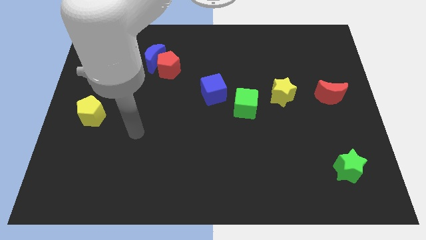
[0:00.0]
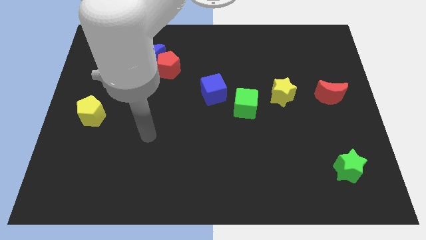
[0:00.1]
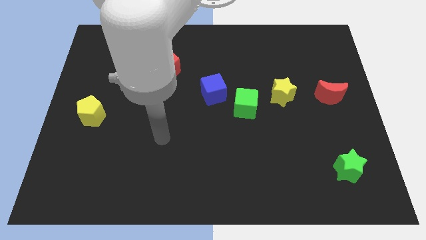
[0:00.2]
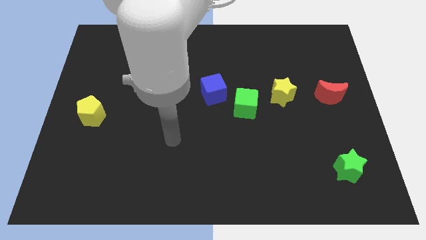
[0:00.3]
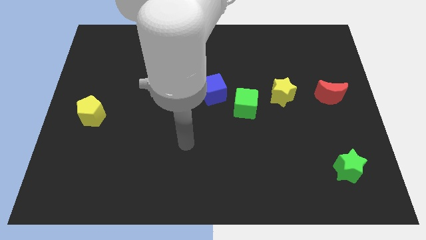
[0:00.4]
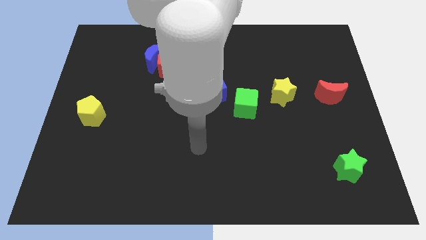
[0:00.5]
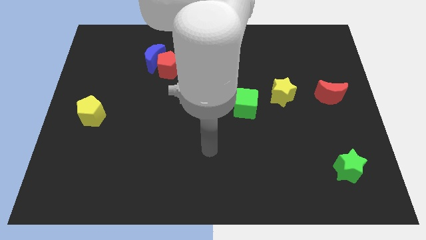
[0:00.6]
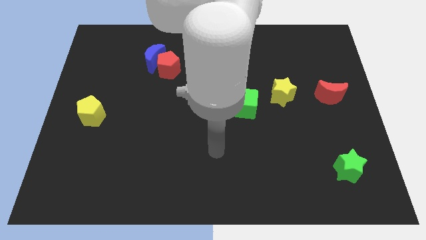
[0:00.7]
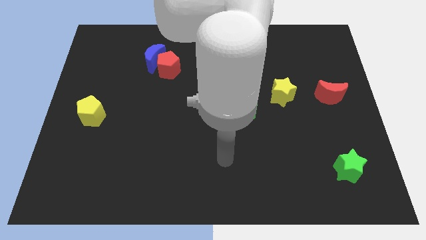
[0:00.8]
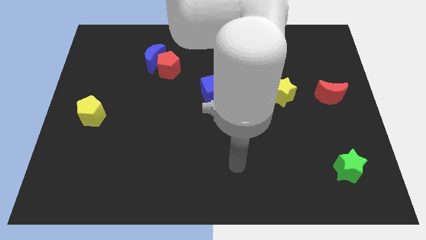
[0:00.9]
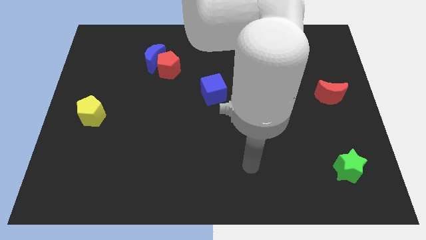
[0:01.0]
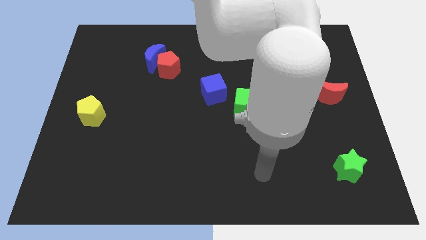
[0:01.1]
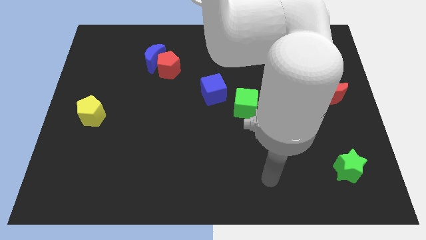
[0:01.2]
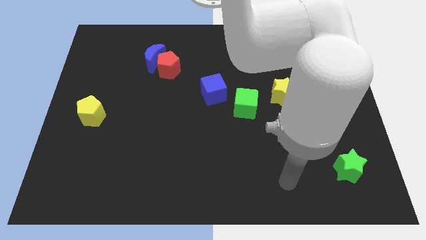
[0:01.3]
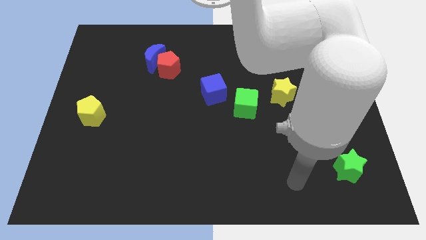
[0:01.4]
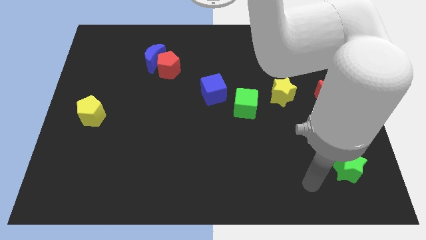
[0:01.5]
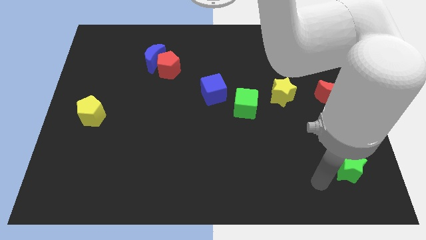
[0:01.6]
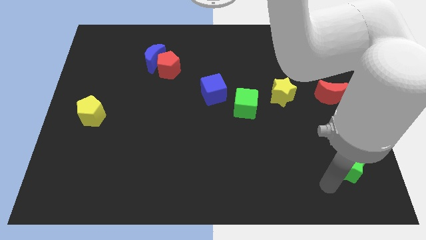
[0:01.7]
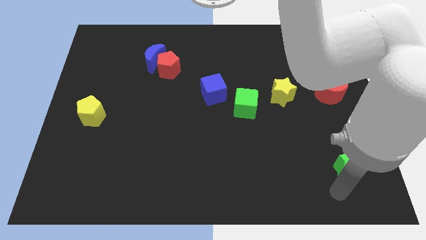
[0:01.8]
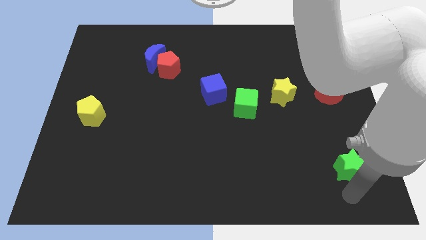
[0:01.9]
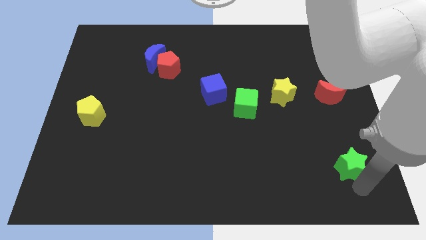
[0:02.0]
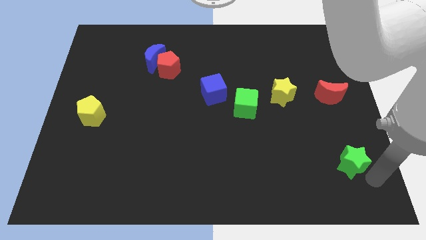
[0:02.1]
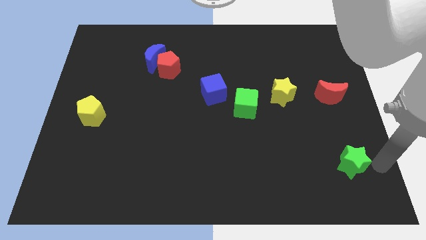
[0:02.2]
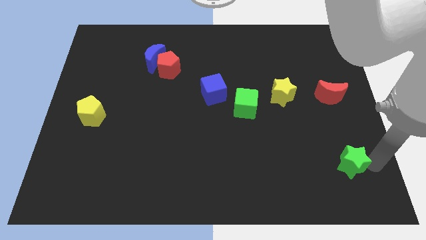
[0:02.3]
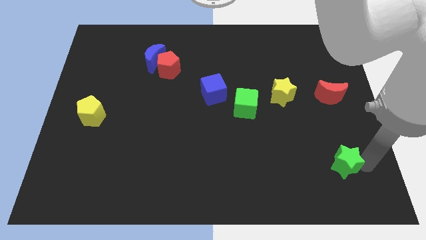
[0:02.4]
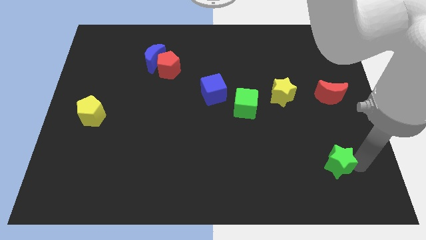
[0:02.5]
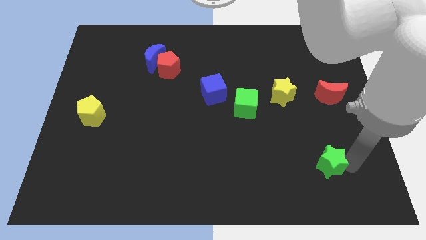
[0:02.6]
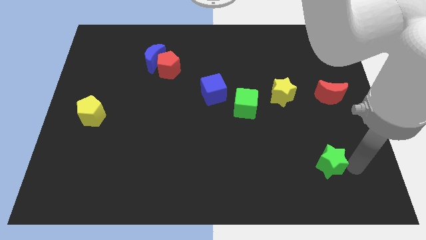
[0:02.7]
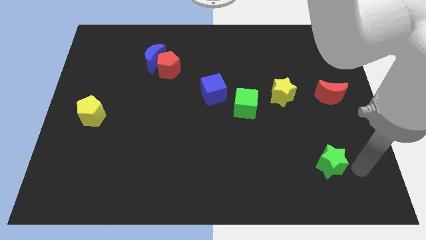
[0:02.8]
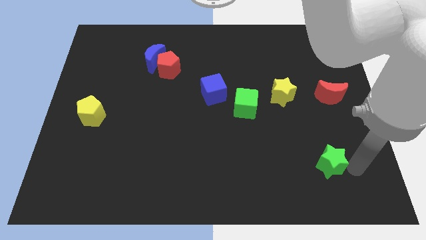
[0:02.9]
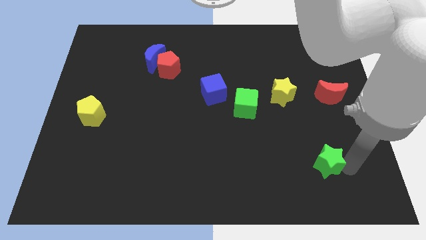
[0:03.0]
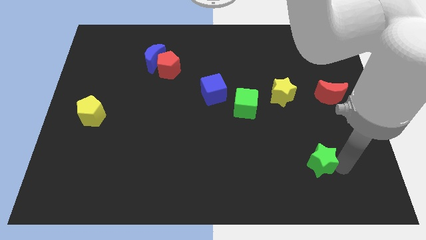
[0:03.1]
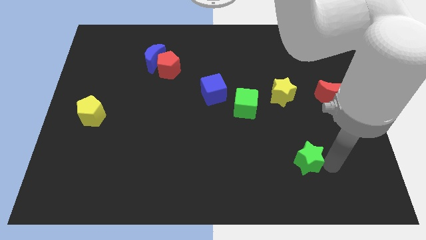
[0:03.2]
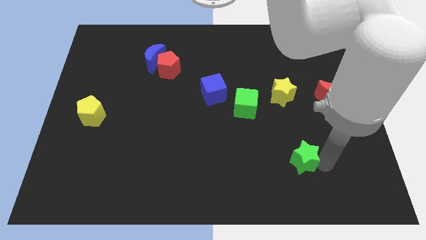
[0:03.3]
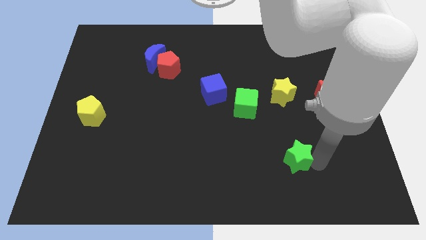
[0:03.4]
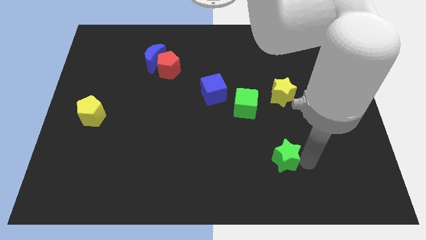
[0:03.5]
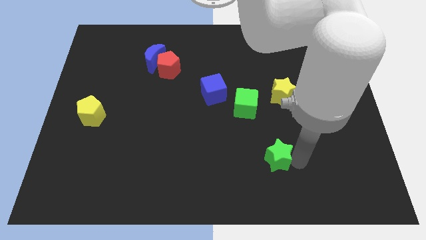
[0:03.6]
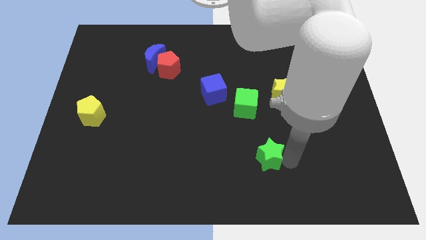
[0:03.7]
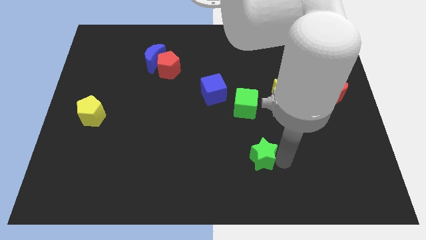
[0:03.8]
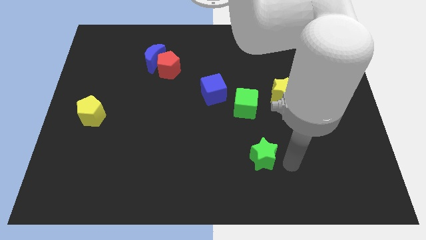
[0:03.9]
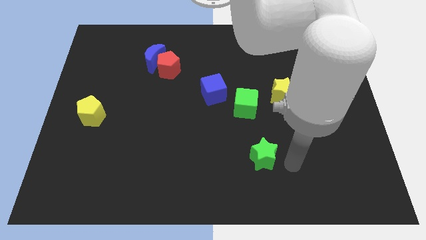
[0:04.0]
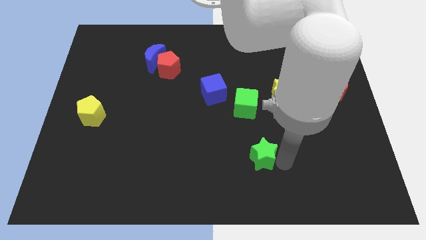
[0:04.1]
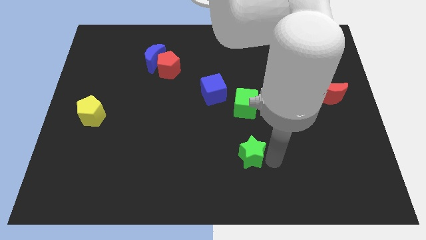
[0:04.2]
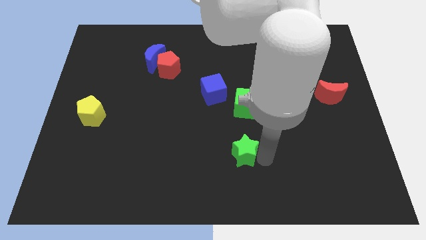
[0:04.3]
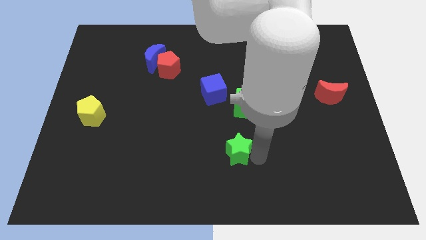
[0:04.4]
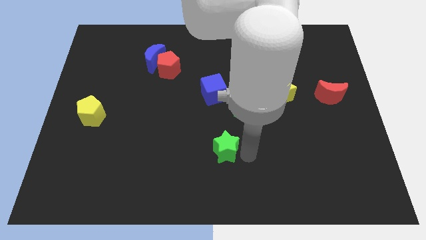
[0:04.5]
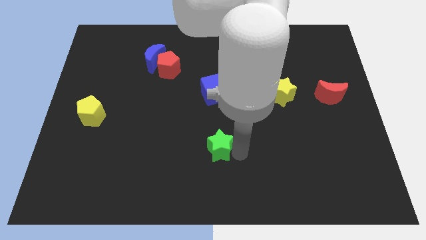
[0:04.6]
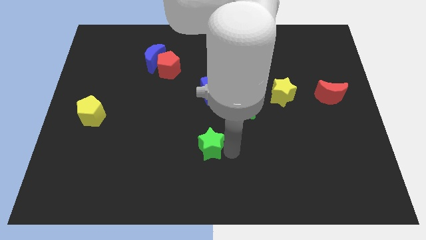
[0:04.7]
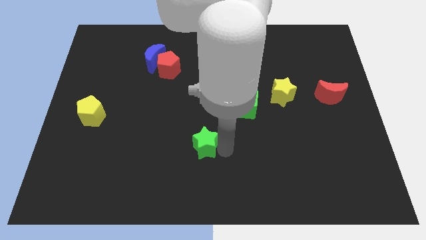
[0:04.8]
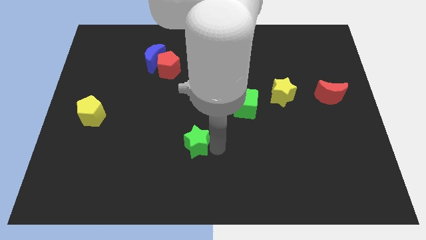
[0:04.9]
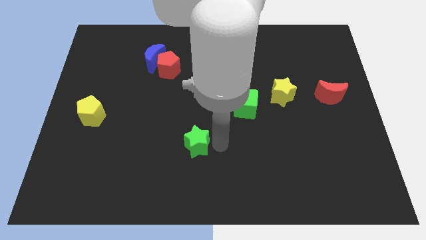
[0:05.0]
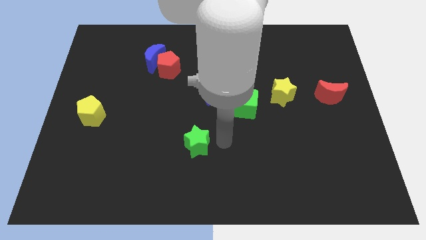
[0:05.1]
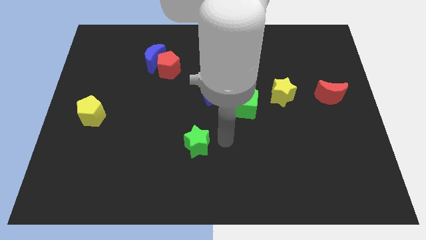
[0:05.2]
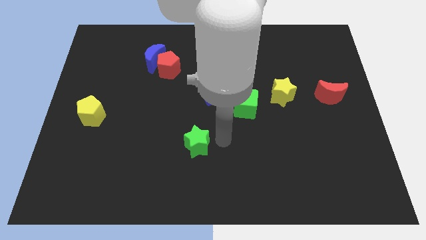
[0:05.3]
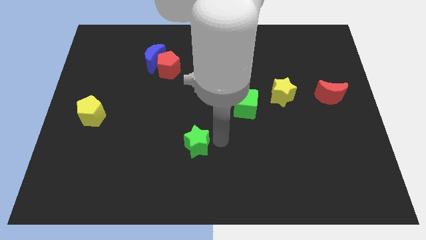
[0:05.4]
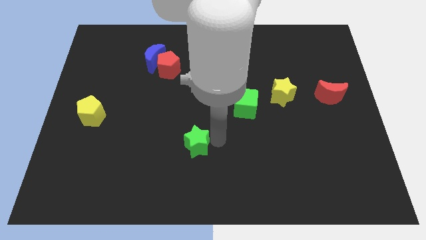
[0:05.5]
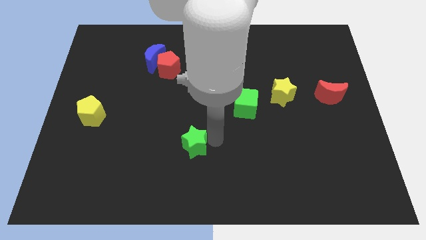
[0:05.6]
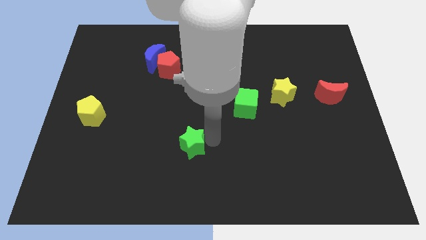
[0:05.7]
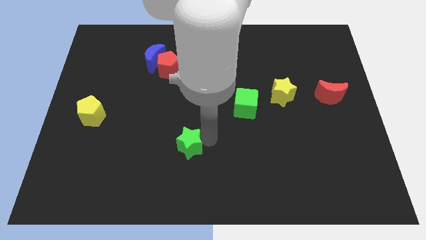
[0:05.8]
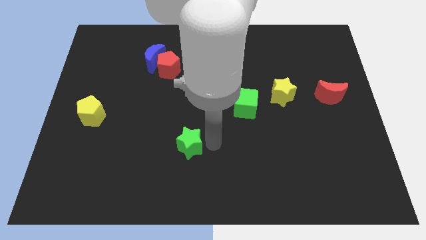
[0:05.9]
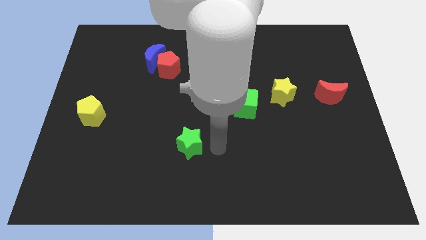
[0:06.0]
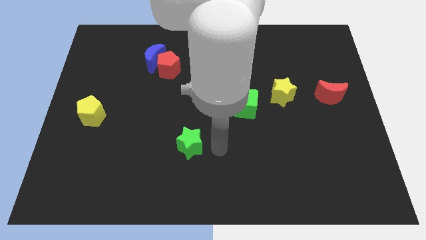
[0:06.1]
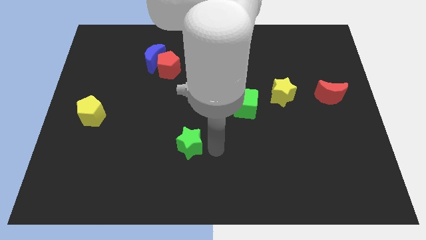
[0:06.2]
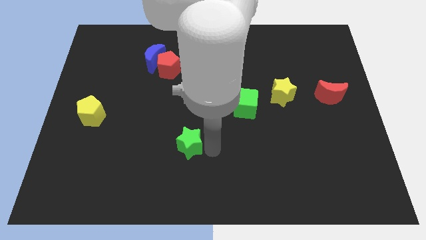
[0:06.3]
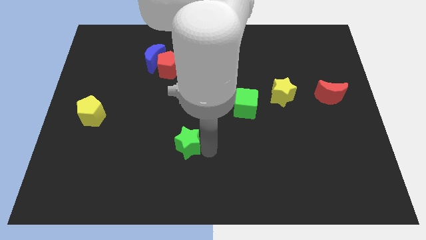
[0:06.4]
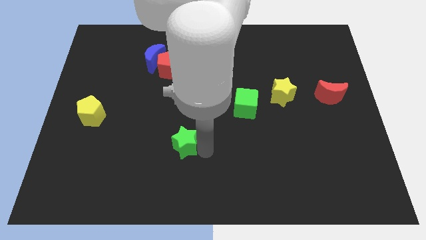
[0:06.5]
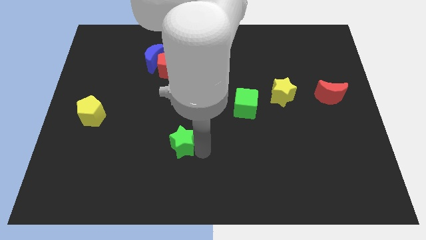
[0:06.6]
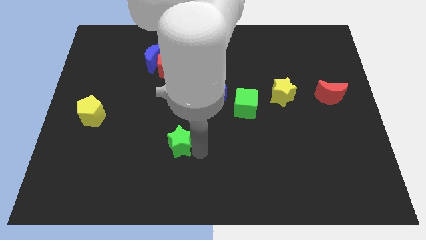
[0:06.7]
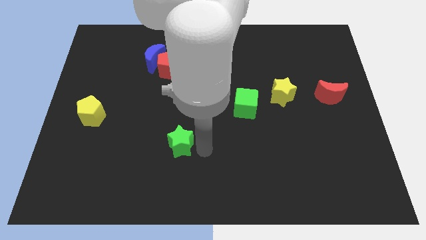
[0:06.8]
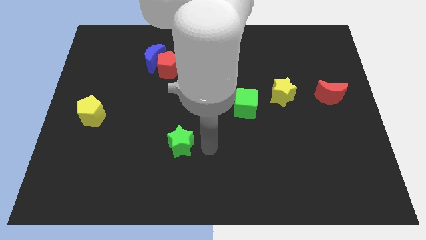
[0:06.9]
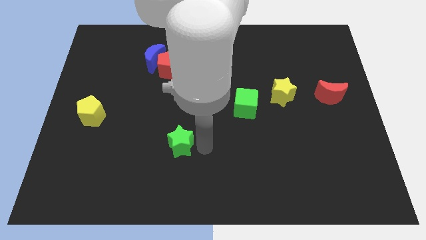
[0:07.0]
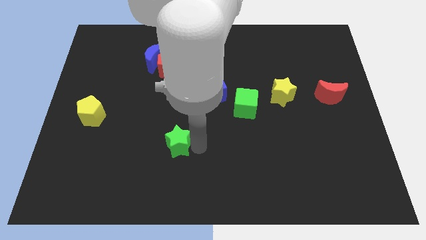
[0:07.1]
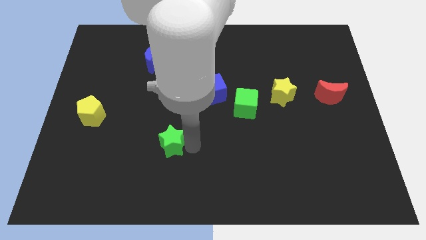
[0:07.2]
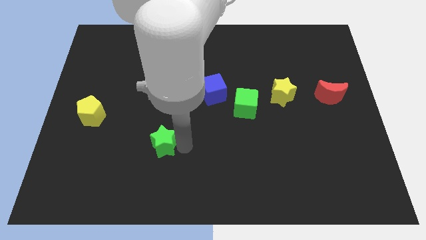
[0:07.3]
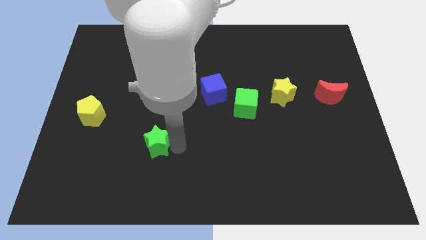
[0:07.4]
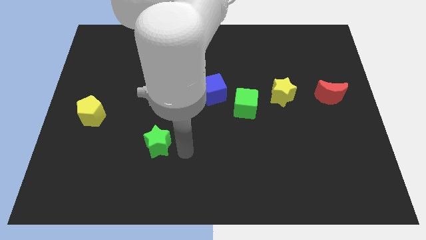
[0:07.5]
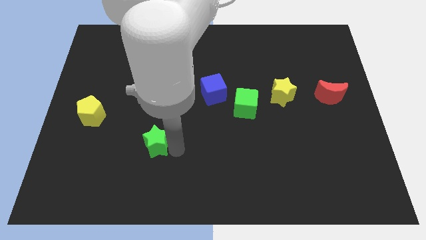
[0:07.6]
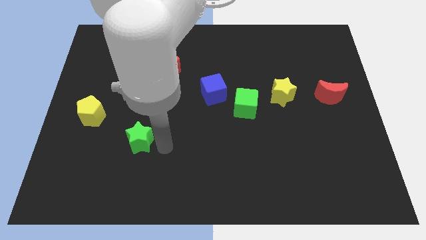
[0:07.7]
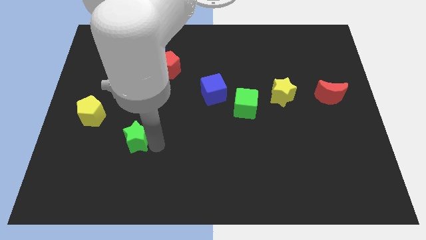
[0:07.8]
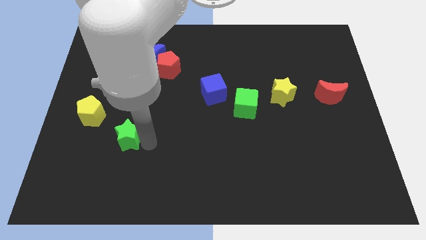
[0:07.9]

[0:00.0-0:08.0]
slide the green star to the bottom right side of the yellow pentagon
